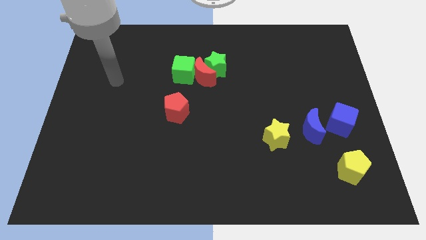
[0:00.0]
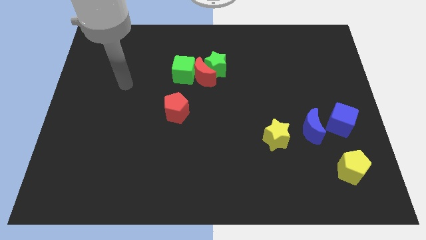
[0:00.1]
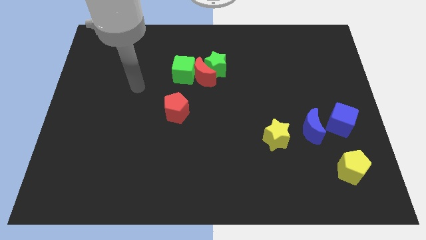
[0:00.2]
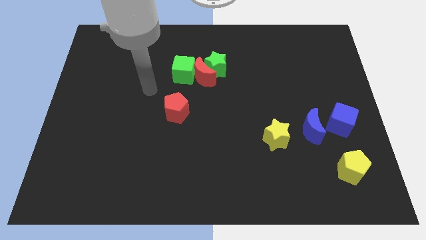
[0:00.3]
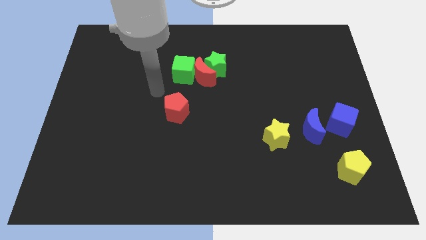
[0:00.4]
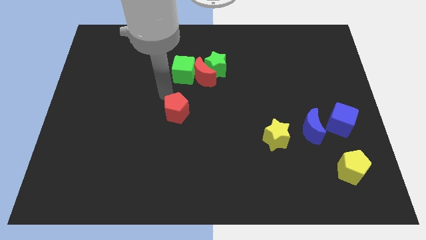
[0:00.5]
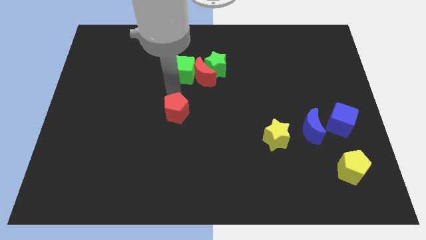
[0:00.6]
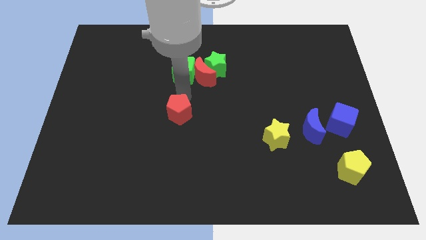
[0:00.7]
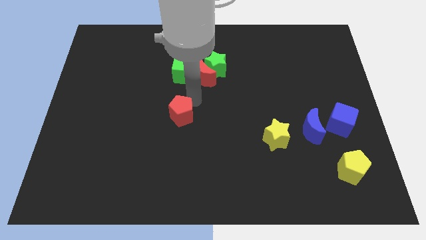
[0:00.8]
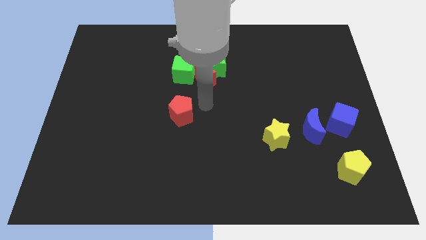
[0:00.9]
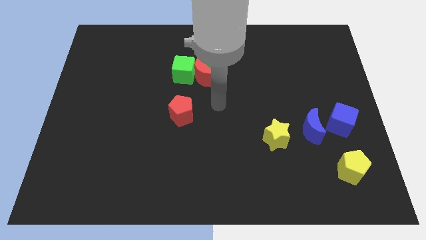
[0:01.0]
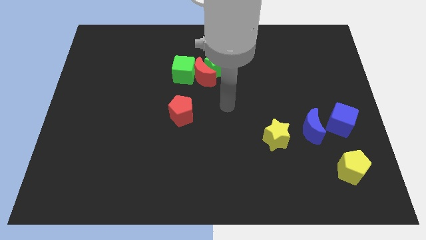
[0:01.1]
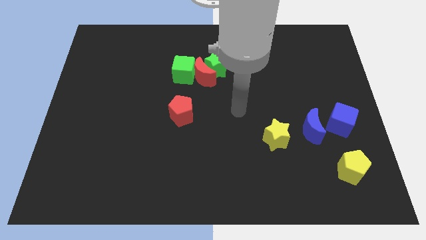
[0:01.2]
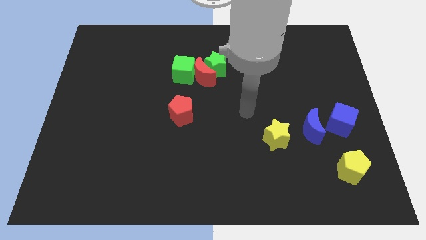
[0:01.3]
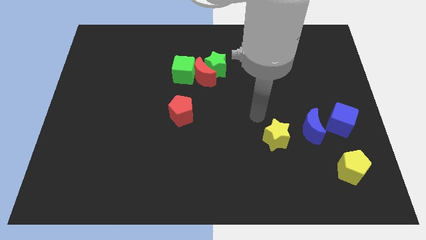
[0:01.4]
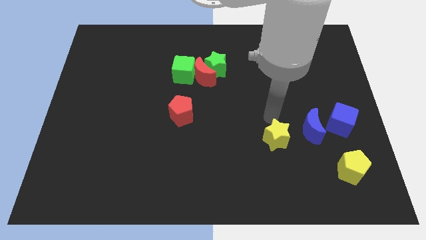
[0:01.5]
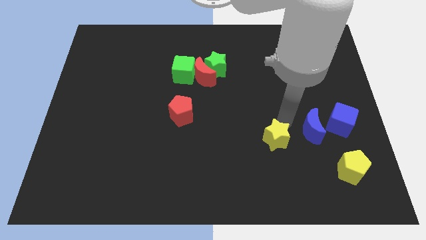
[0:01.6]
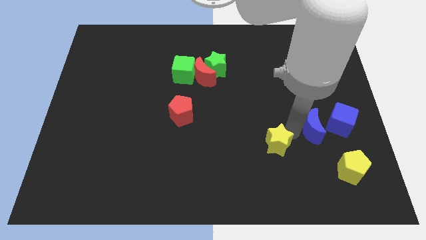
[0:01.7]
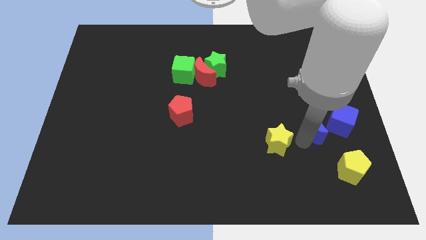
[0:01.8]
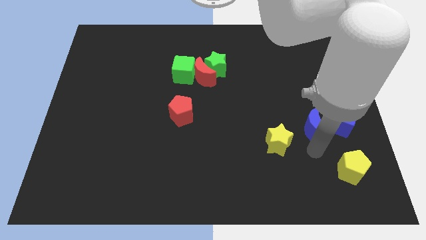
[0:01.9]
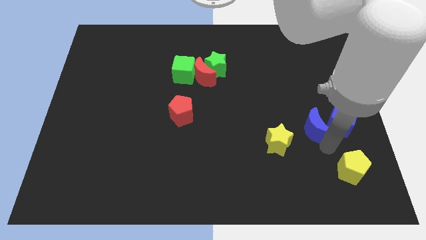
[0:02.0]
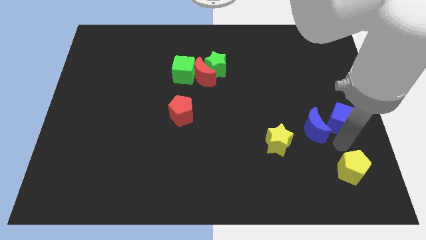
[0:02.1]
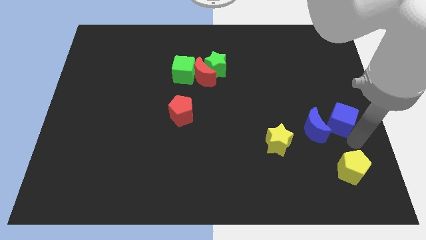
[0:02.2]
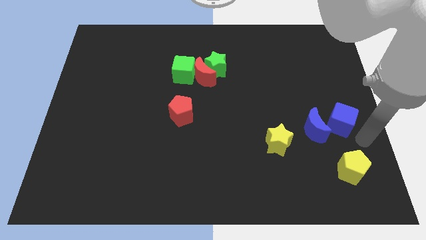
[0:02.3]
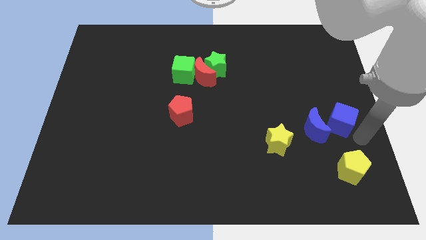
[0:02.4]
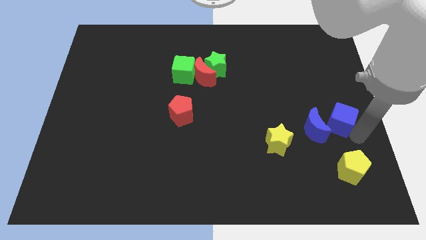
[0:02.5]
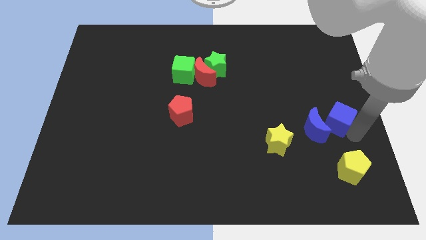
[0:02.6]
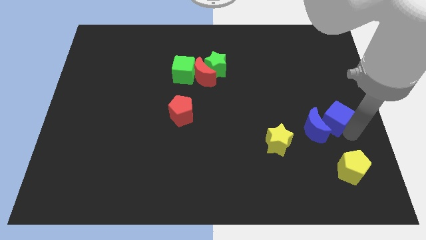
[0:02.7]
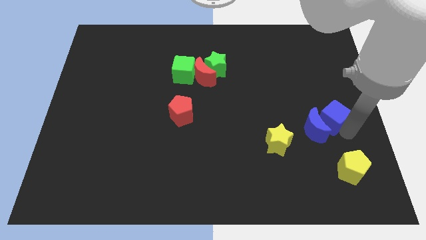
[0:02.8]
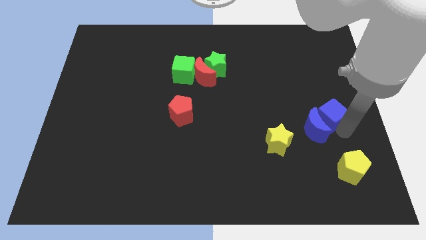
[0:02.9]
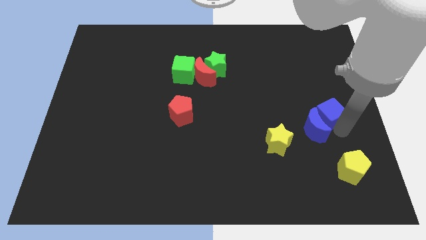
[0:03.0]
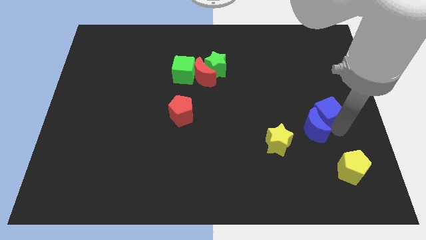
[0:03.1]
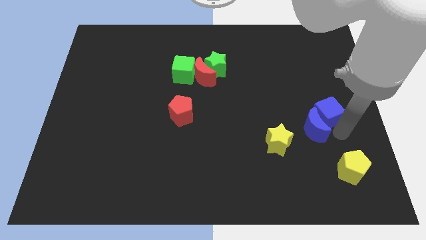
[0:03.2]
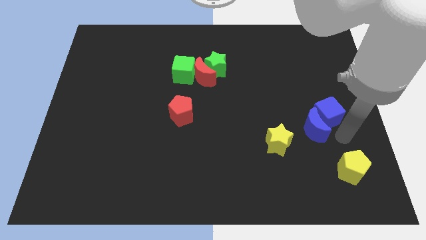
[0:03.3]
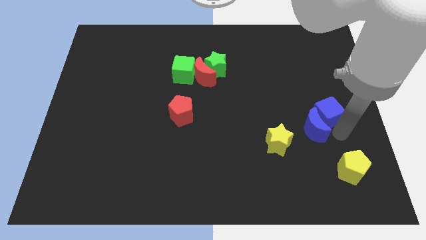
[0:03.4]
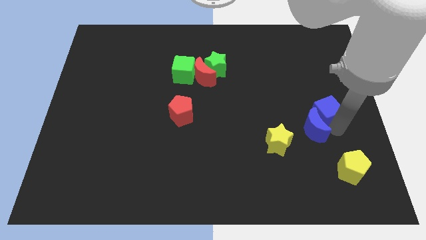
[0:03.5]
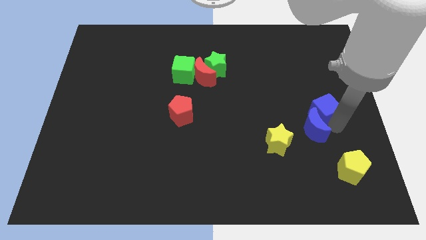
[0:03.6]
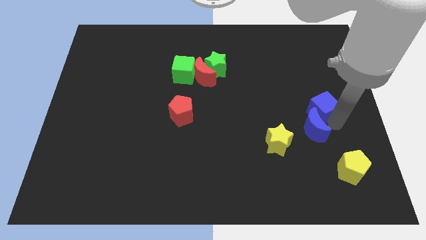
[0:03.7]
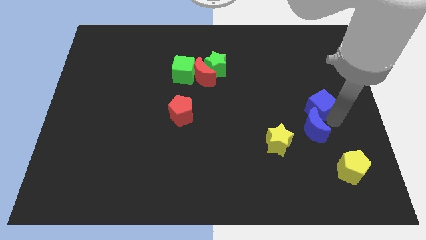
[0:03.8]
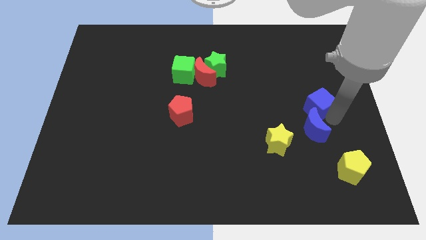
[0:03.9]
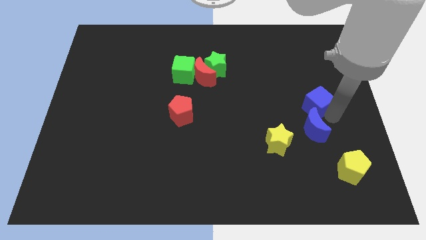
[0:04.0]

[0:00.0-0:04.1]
slightly push the blue cube upwards and then left

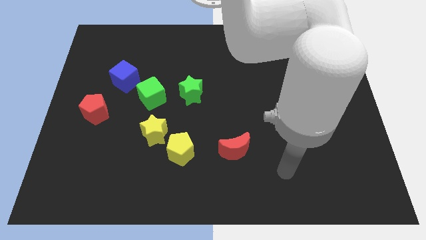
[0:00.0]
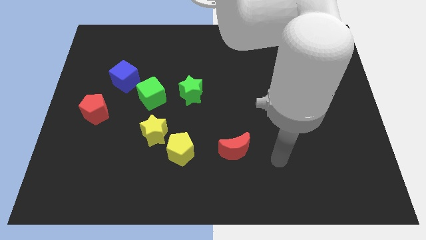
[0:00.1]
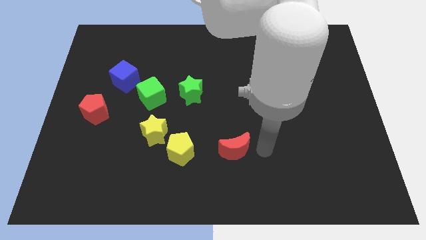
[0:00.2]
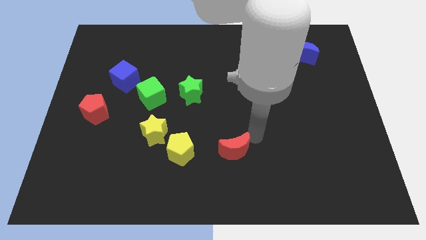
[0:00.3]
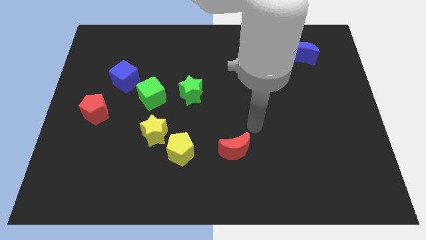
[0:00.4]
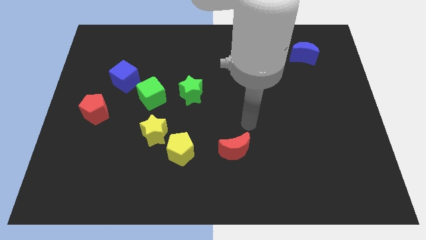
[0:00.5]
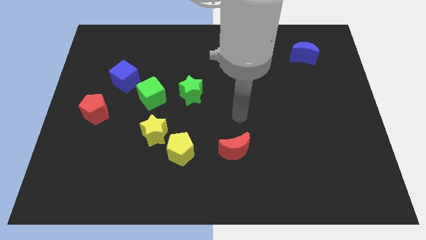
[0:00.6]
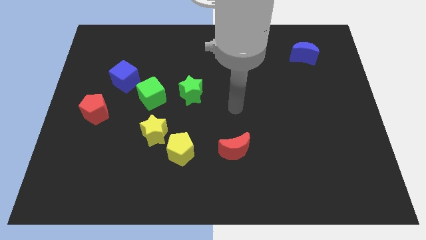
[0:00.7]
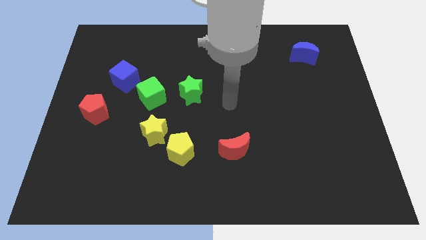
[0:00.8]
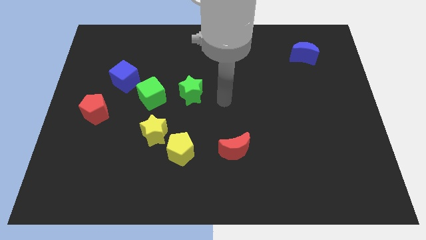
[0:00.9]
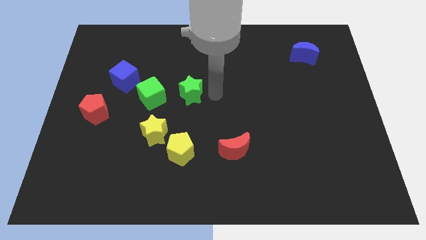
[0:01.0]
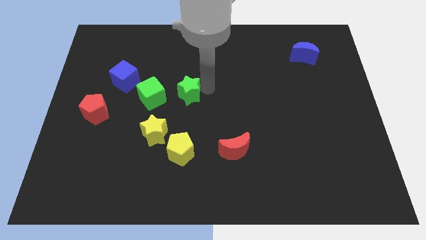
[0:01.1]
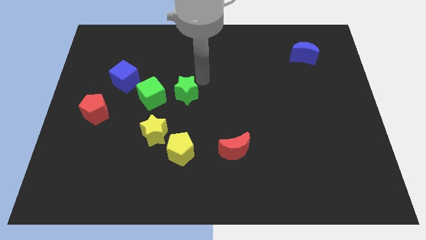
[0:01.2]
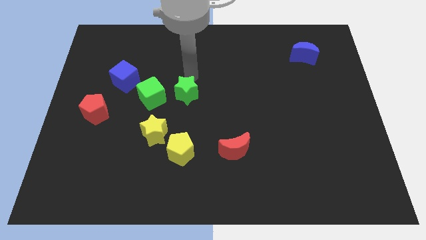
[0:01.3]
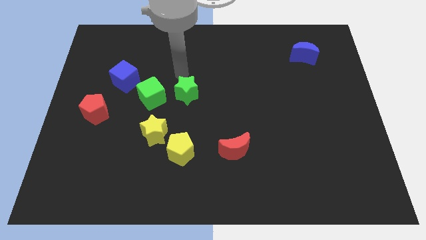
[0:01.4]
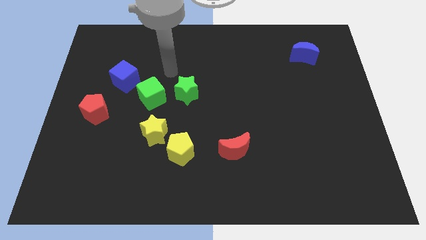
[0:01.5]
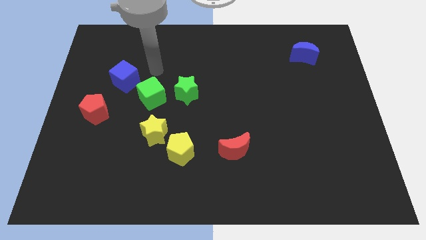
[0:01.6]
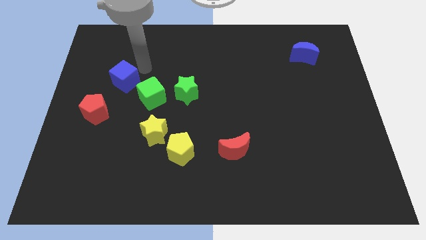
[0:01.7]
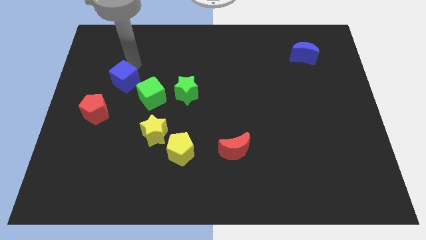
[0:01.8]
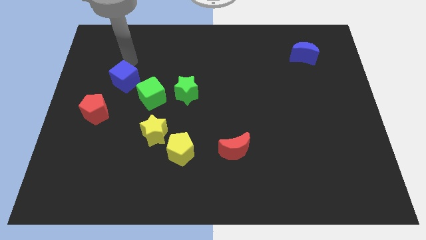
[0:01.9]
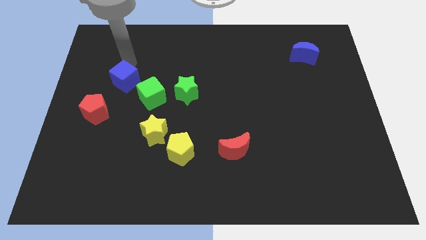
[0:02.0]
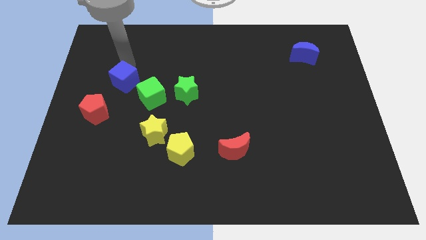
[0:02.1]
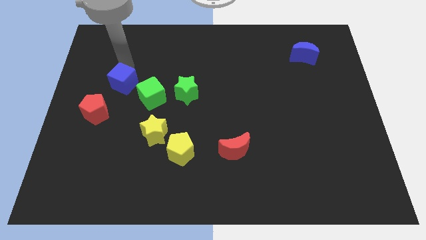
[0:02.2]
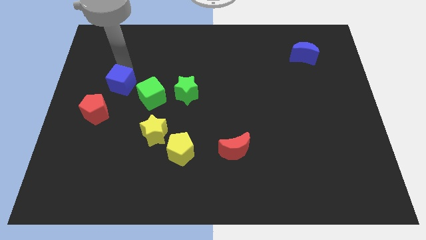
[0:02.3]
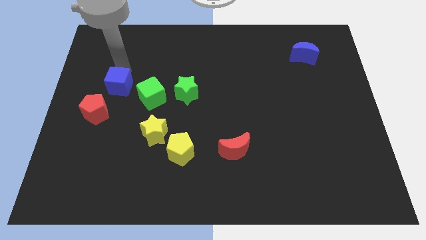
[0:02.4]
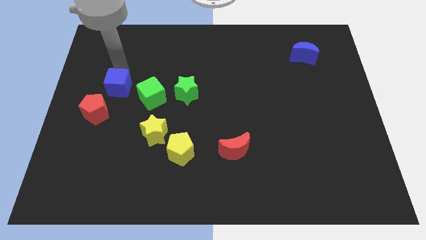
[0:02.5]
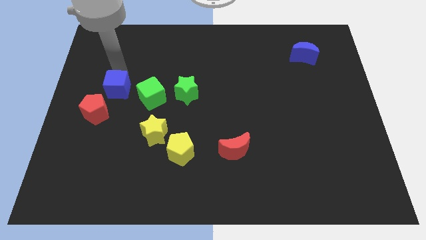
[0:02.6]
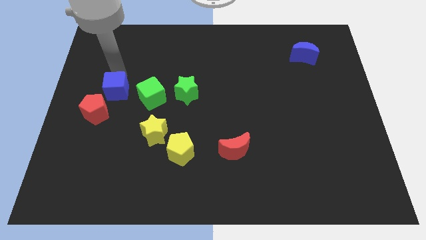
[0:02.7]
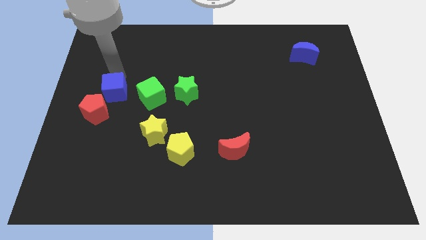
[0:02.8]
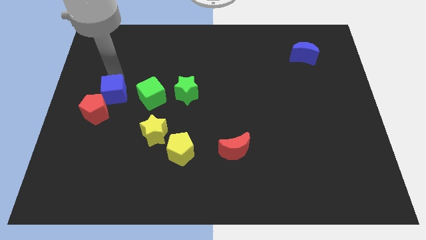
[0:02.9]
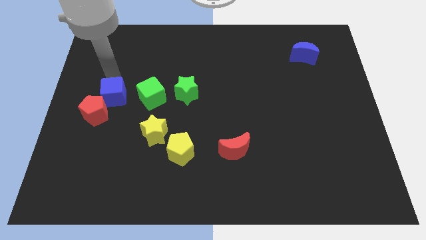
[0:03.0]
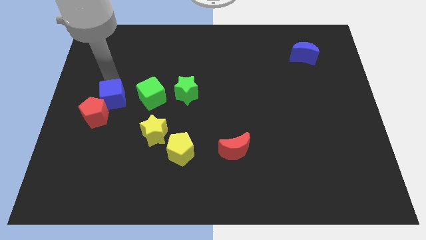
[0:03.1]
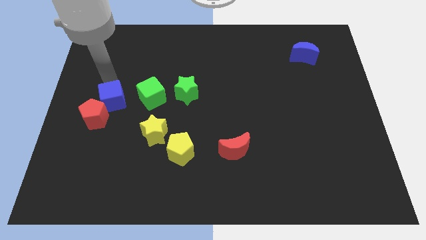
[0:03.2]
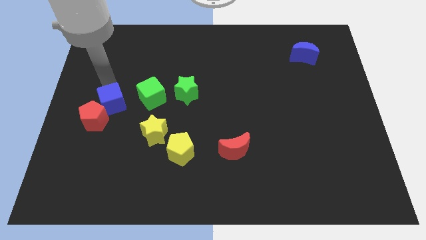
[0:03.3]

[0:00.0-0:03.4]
slightly slide the blue cube down

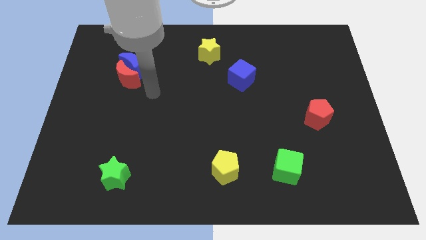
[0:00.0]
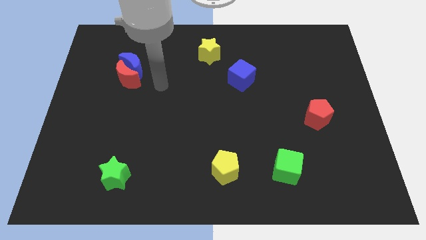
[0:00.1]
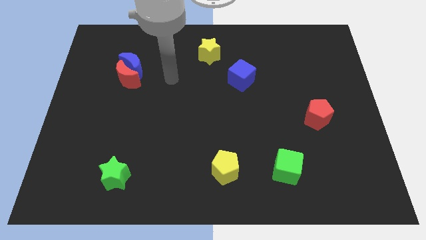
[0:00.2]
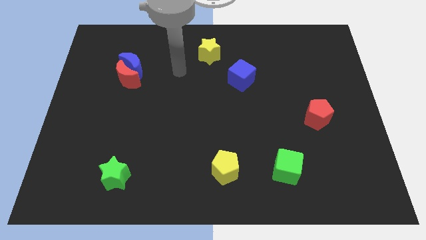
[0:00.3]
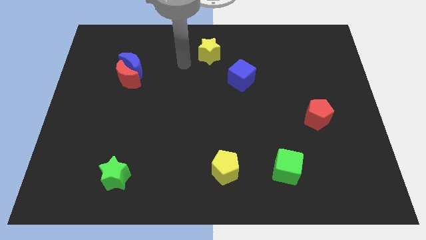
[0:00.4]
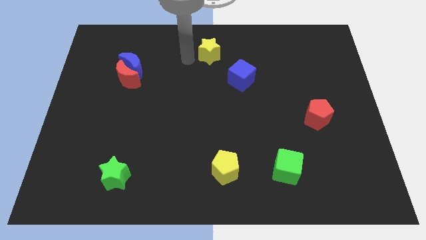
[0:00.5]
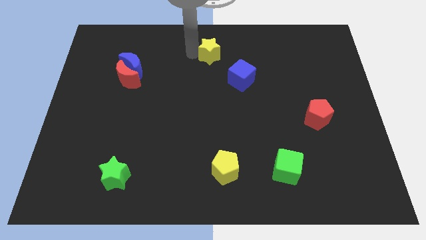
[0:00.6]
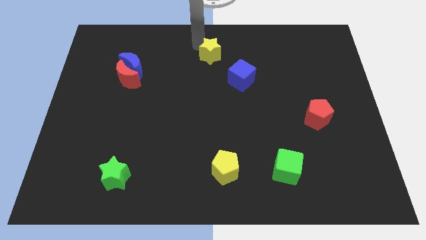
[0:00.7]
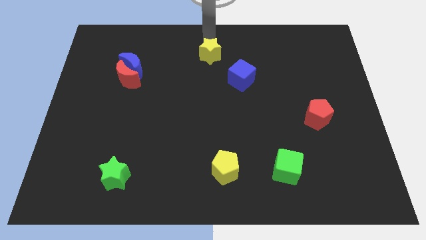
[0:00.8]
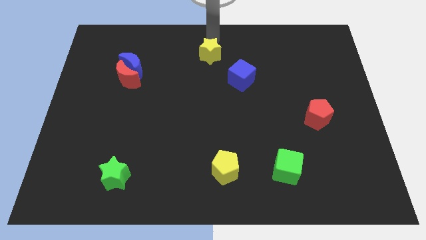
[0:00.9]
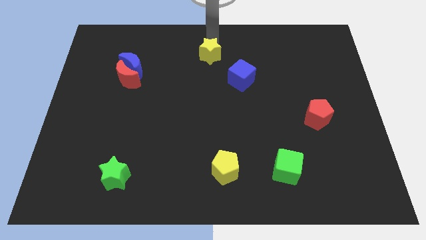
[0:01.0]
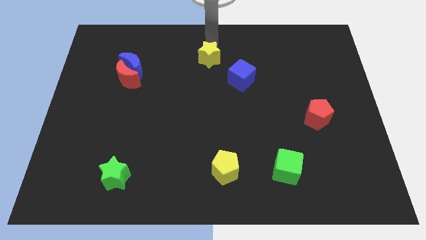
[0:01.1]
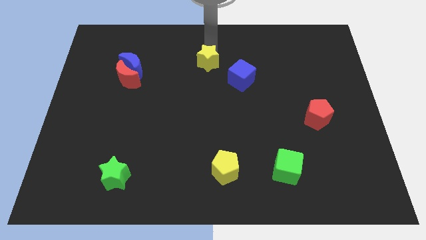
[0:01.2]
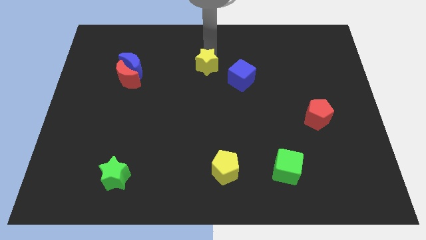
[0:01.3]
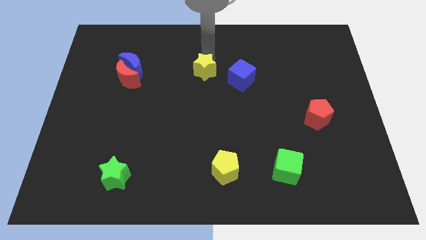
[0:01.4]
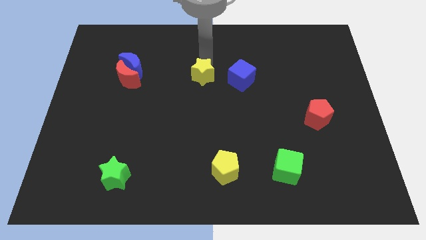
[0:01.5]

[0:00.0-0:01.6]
move the yellow star a little bit down
